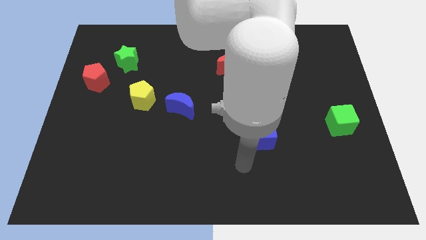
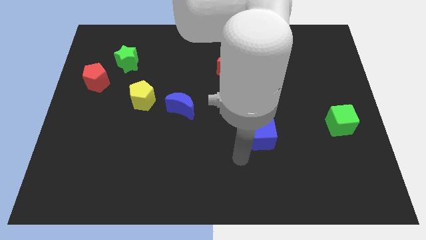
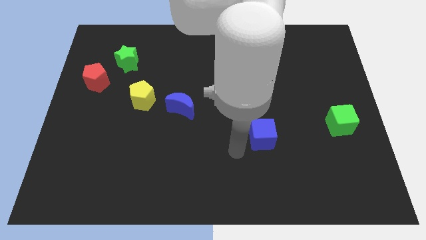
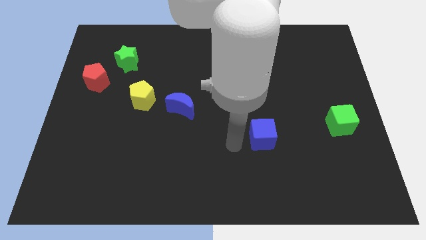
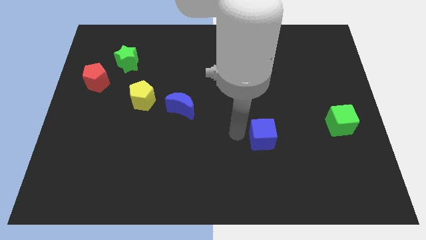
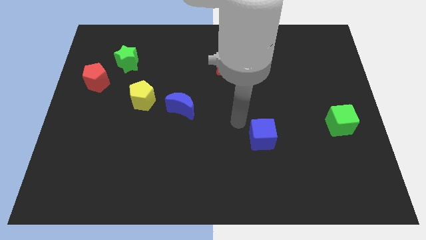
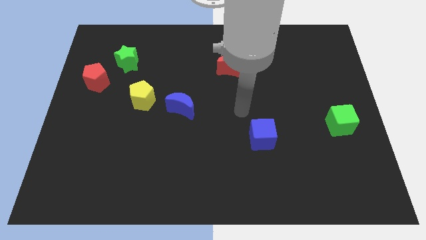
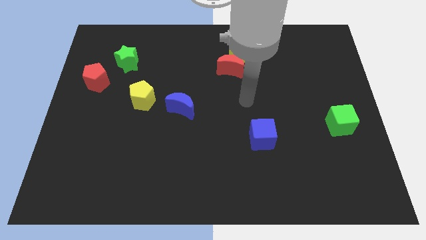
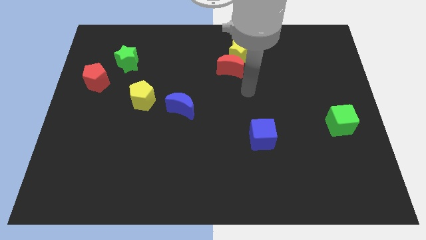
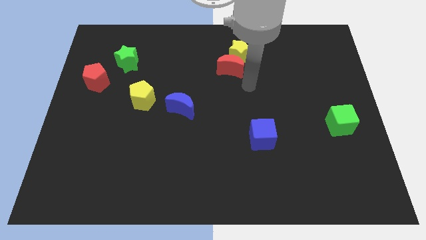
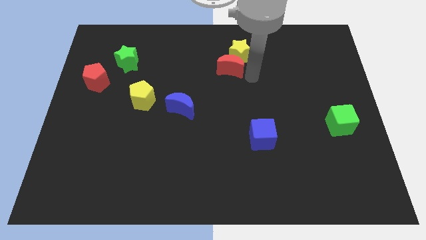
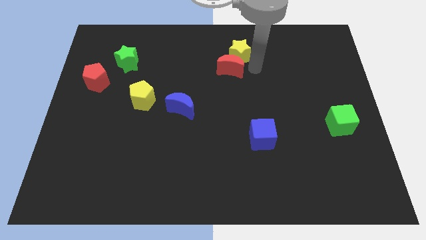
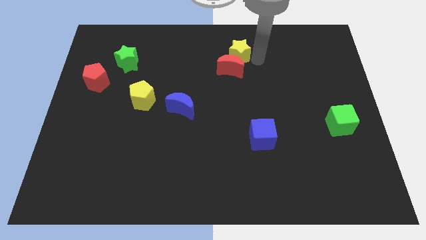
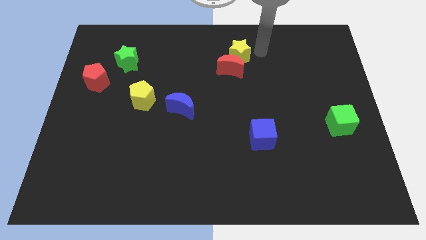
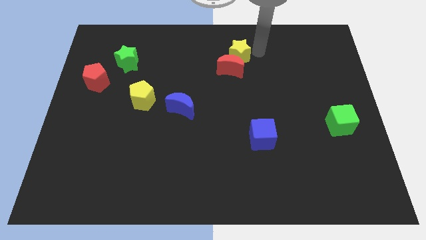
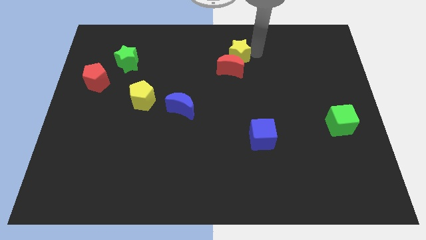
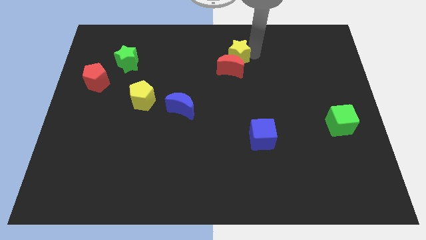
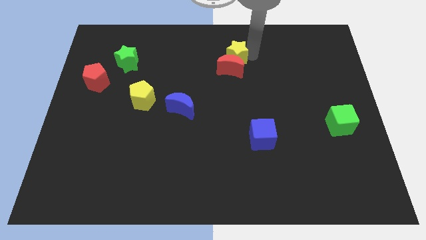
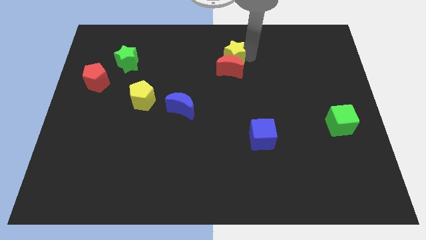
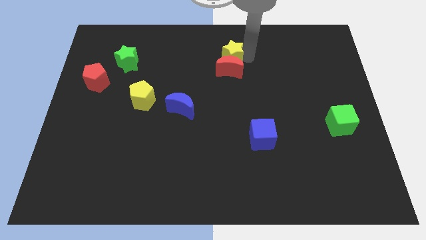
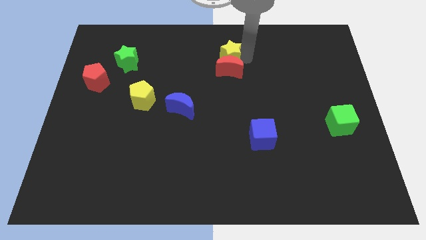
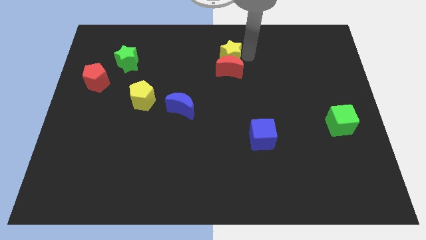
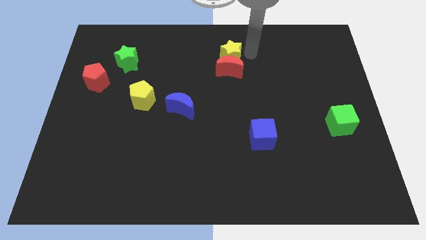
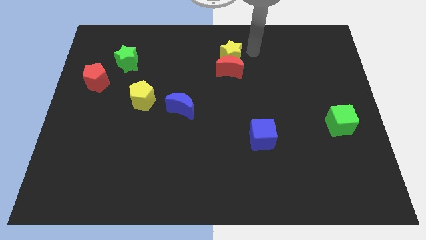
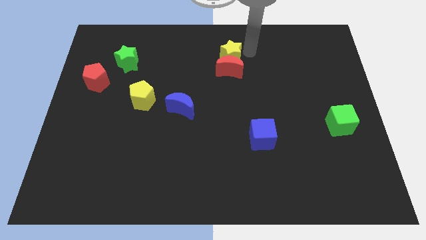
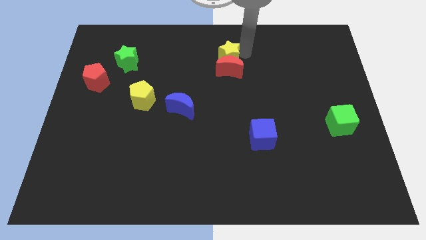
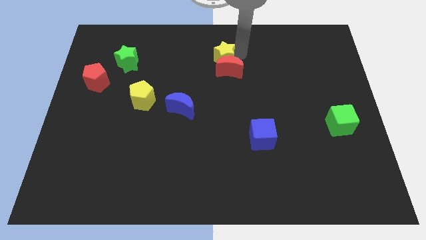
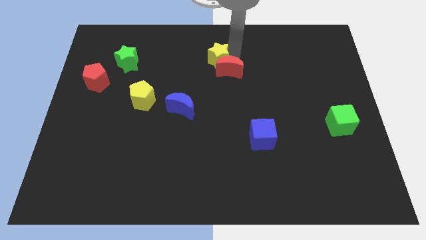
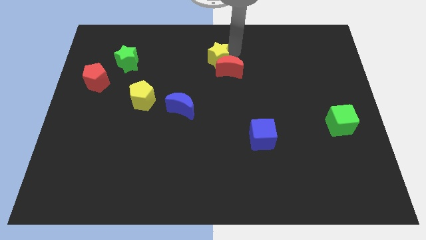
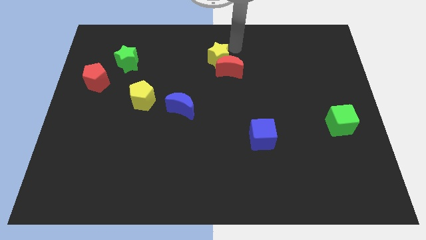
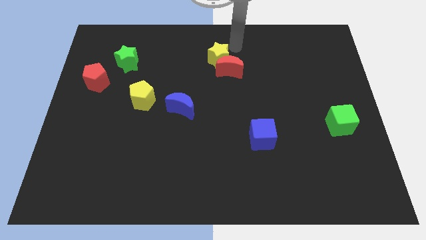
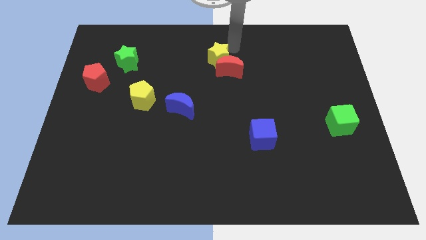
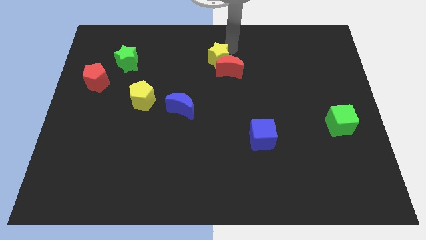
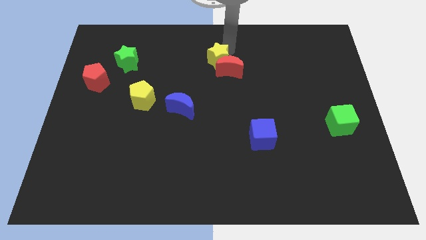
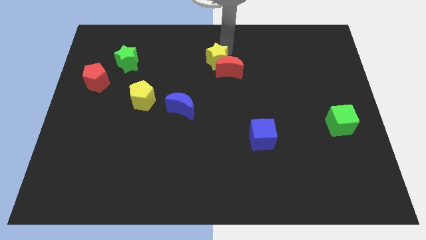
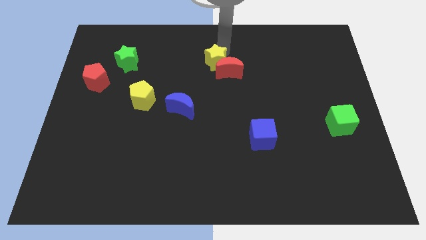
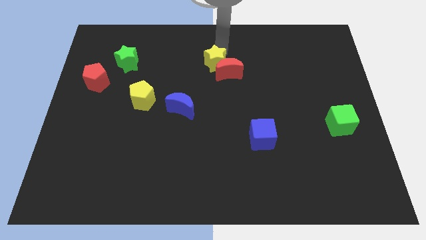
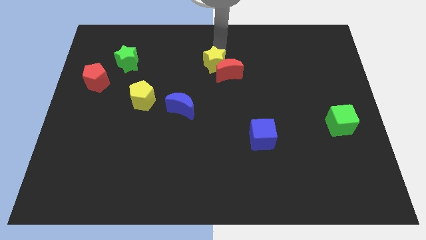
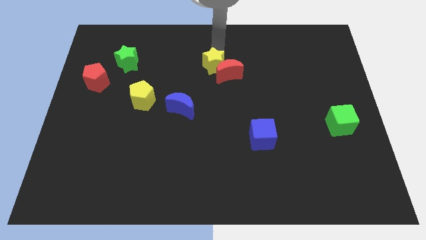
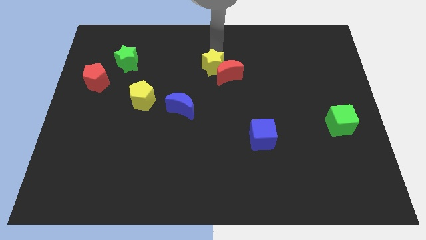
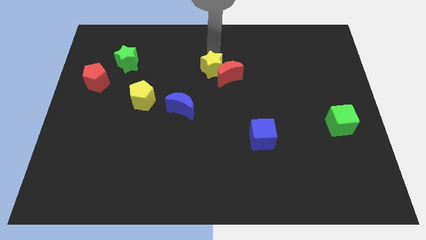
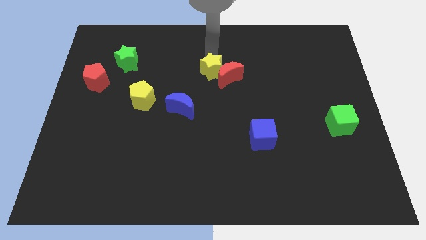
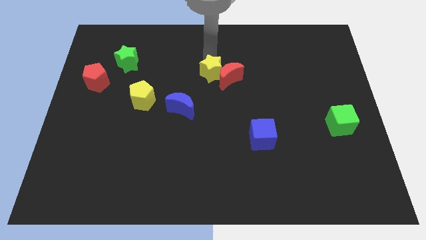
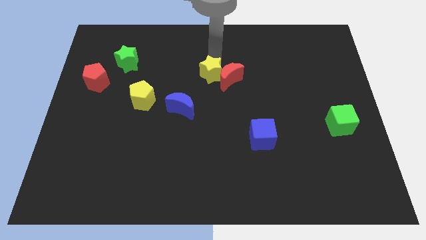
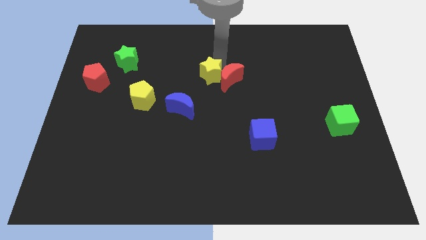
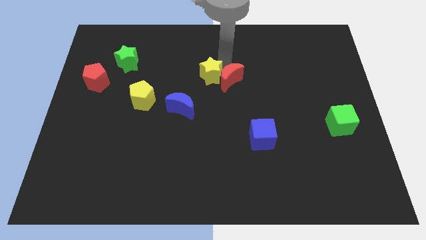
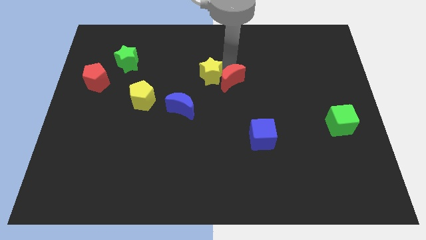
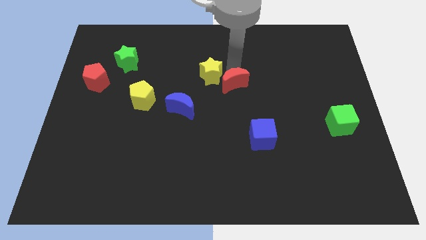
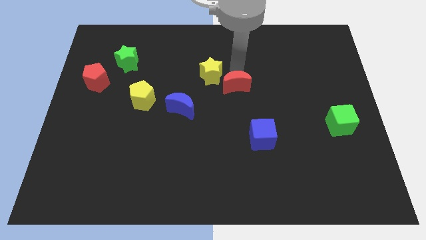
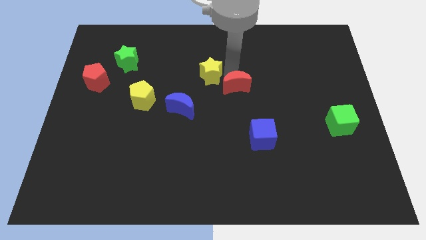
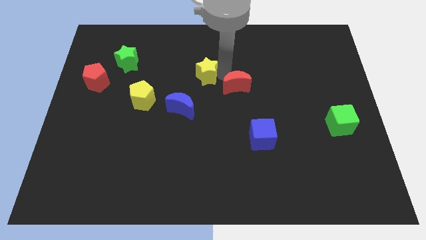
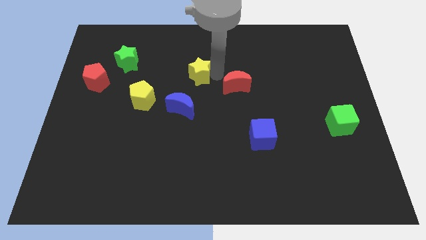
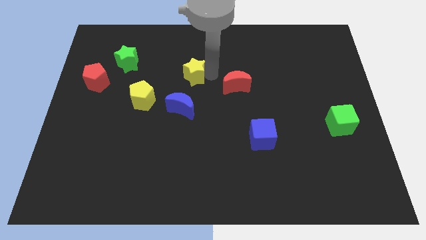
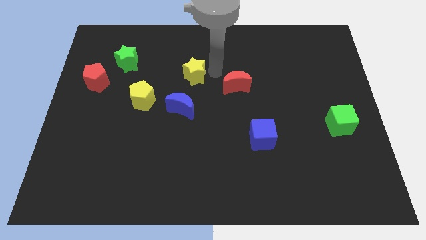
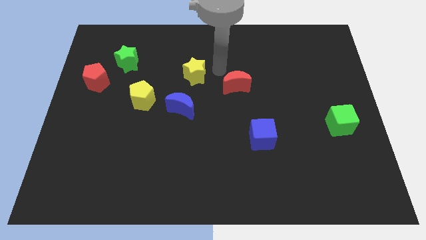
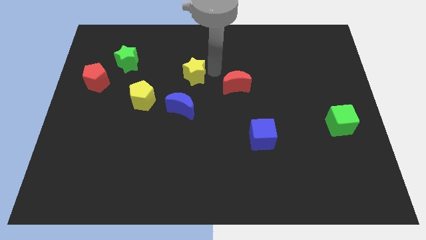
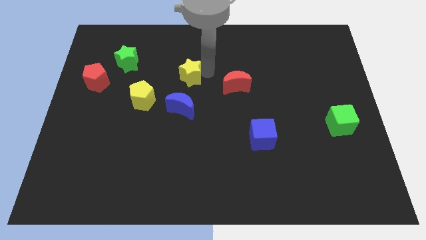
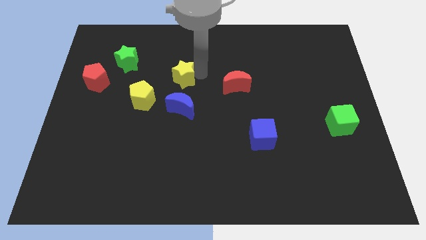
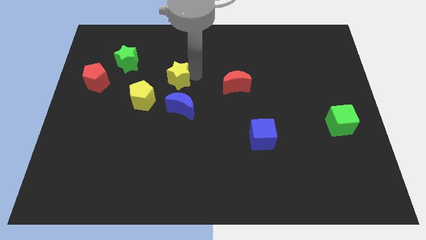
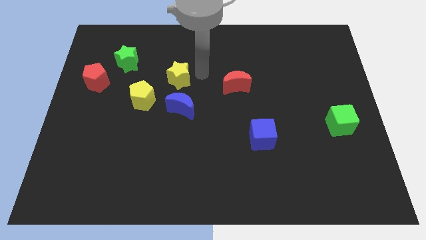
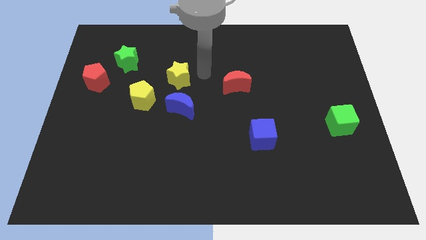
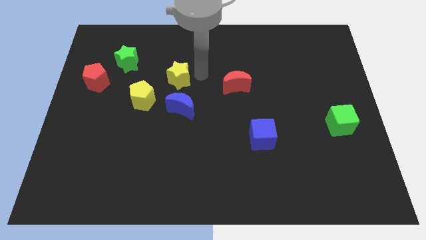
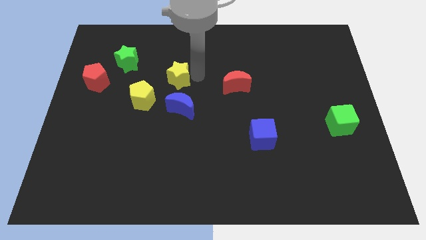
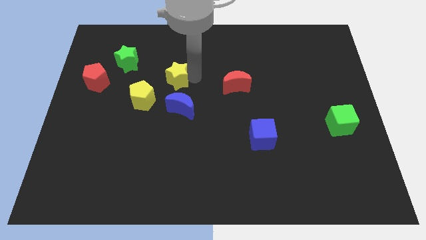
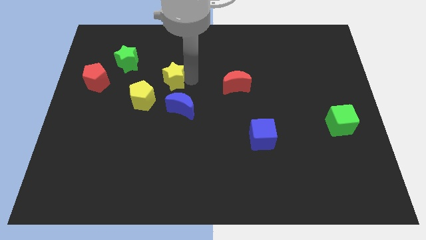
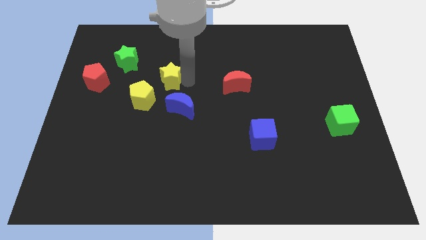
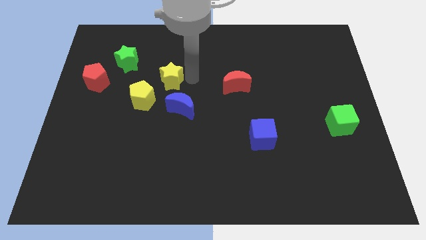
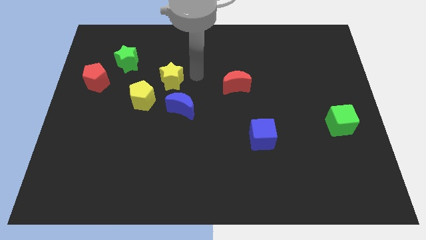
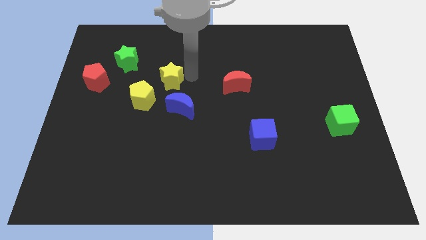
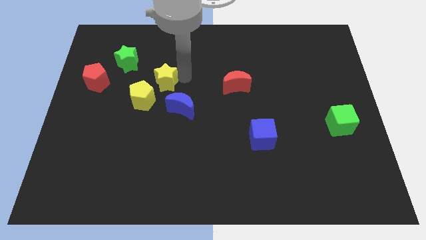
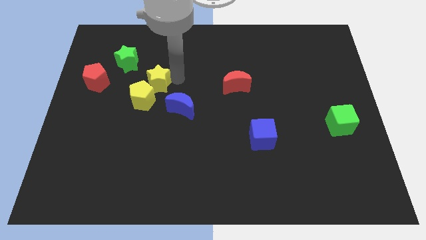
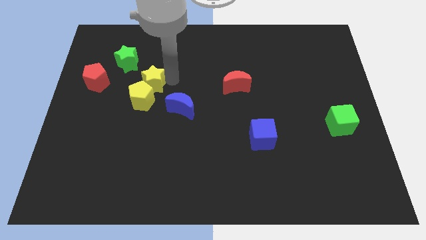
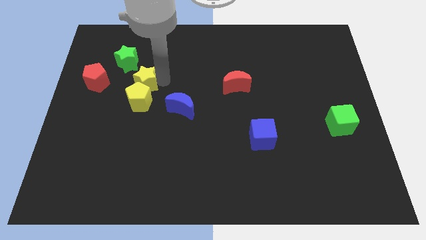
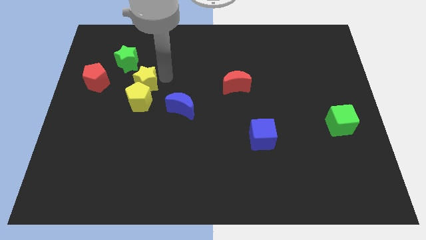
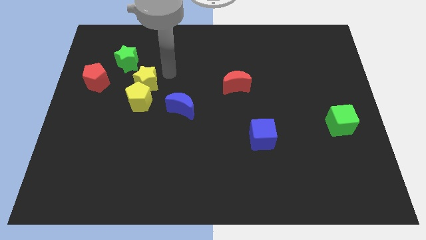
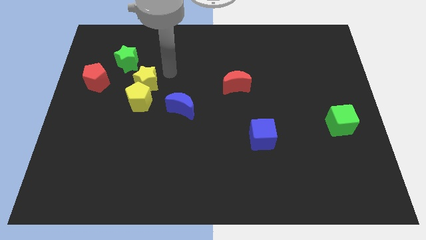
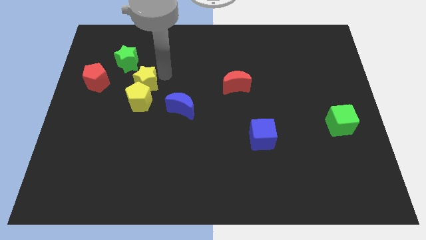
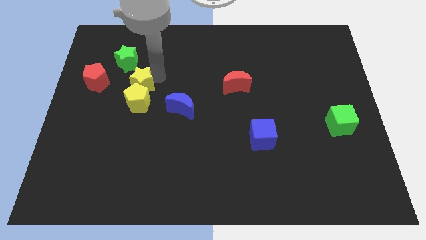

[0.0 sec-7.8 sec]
put the yellow star to the bottom of the green star
